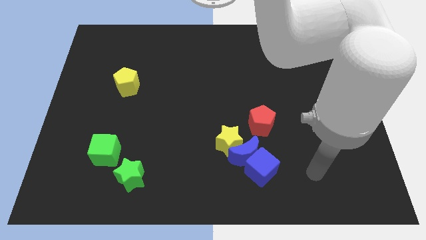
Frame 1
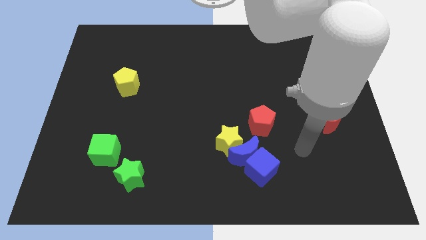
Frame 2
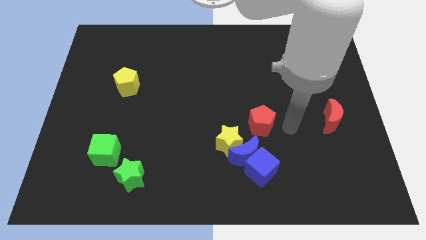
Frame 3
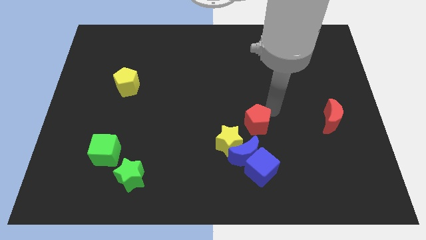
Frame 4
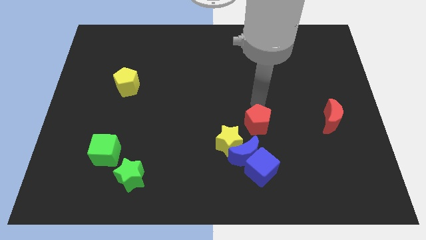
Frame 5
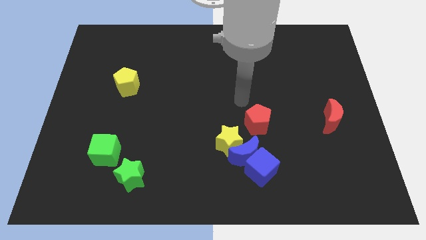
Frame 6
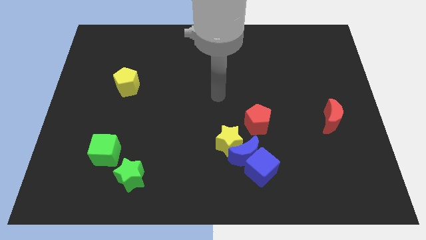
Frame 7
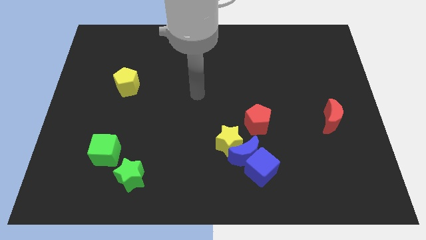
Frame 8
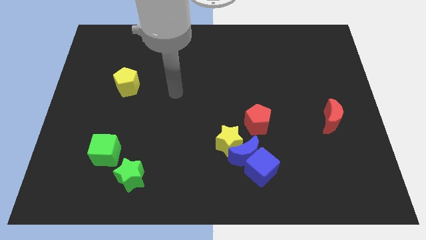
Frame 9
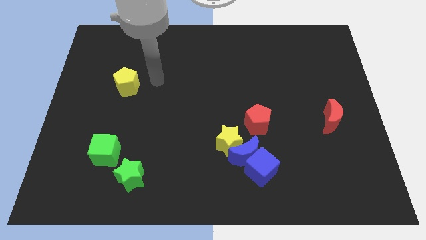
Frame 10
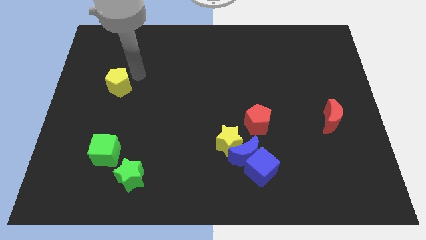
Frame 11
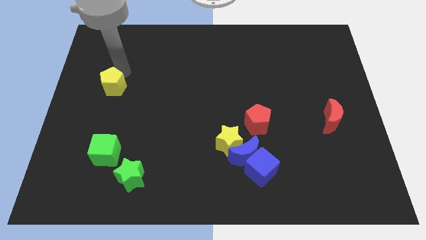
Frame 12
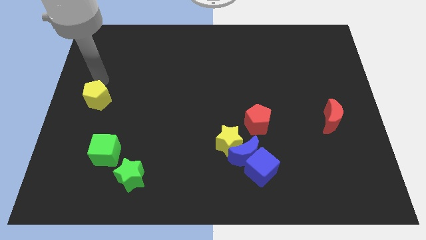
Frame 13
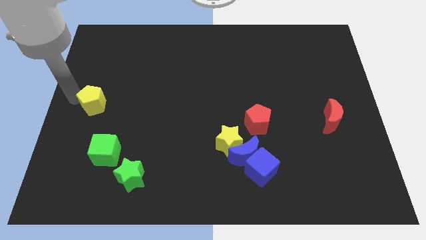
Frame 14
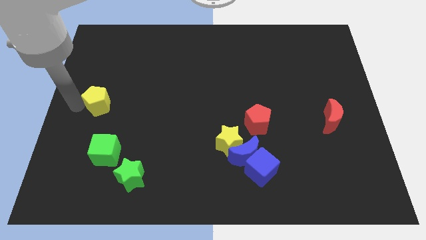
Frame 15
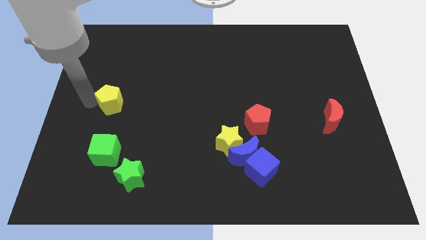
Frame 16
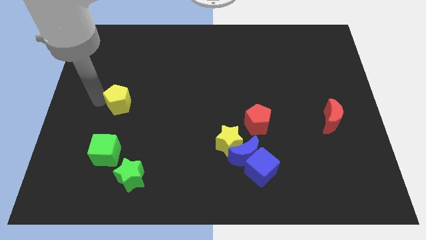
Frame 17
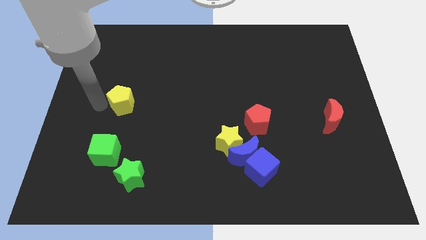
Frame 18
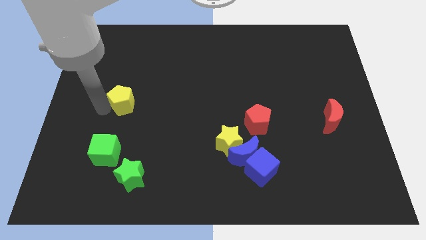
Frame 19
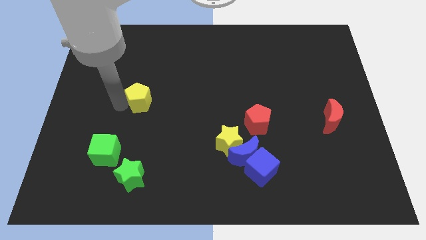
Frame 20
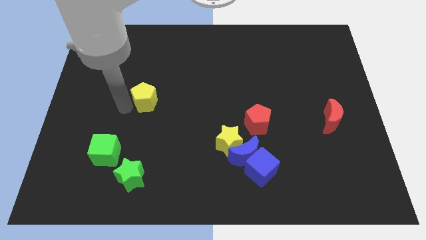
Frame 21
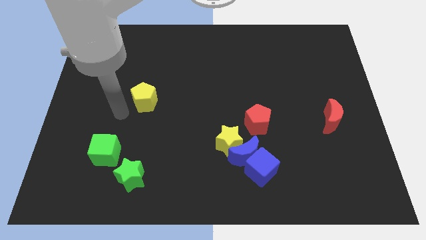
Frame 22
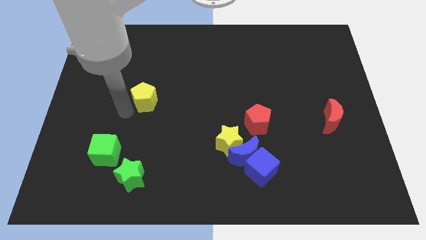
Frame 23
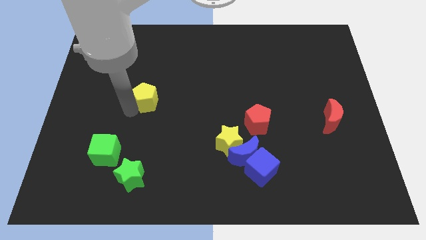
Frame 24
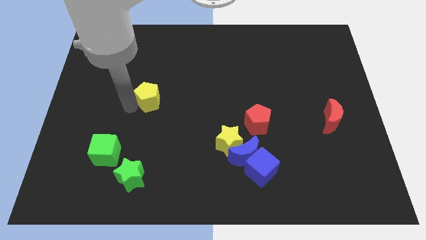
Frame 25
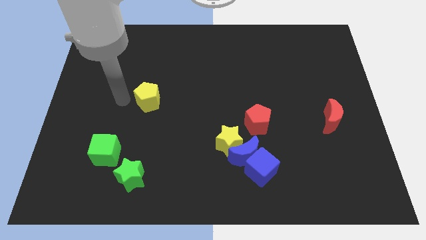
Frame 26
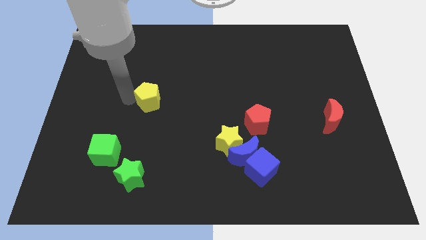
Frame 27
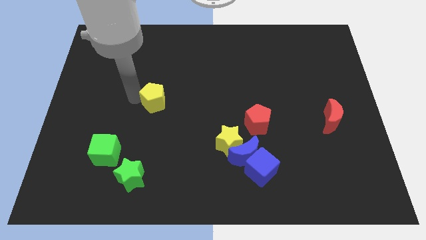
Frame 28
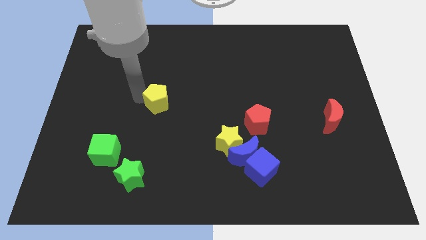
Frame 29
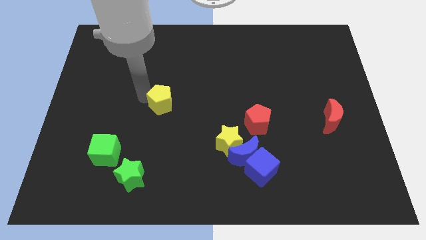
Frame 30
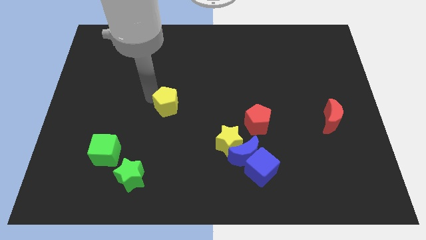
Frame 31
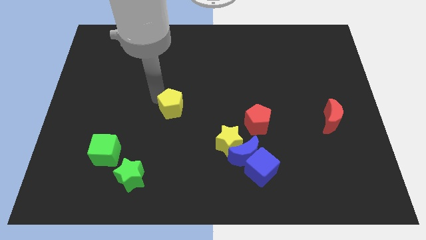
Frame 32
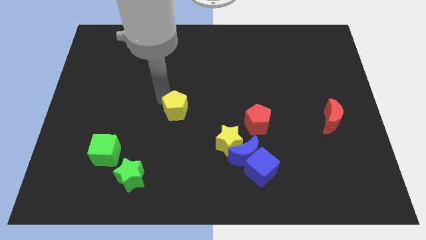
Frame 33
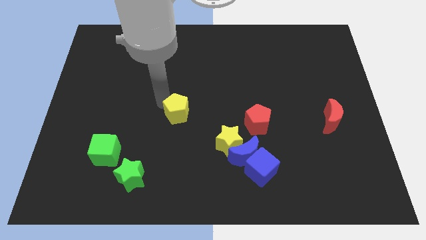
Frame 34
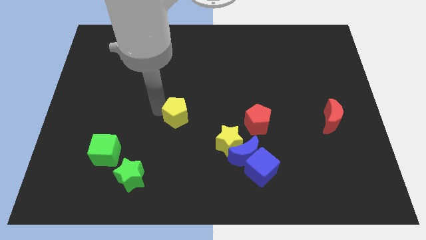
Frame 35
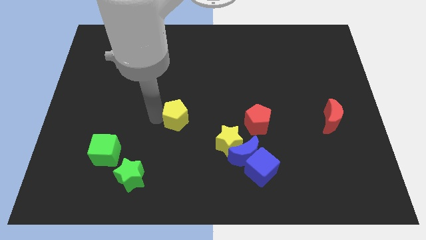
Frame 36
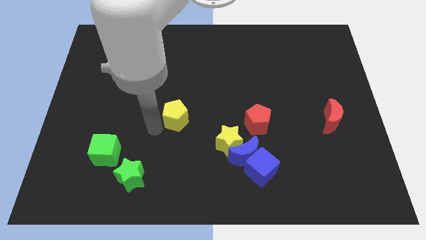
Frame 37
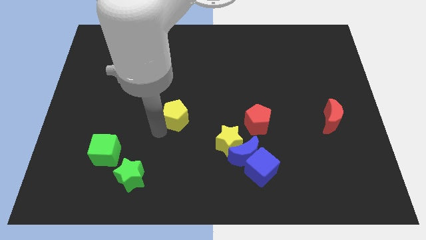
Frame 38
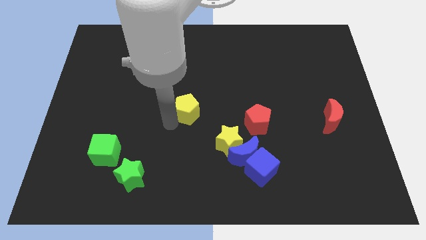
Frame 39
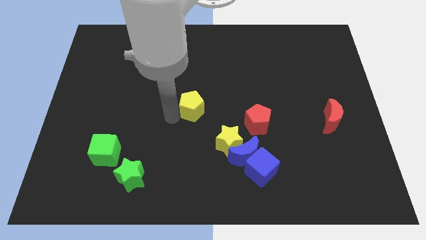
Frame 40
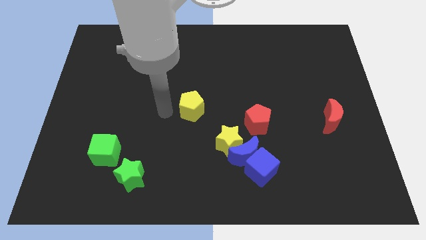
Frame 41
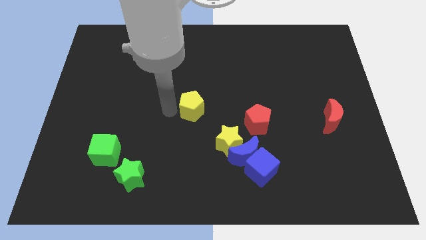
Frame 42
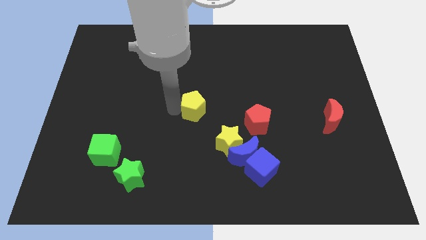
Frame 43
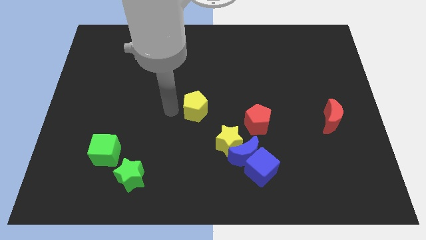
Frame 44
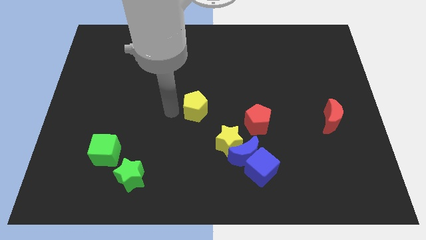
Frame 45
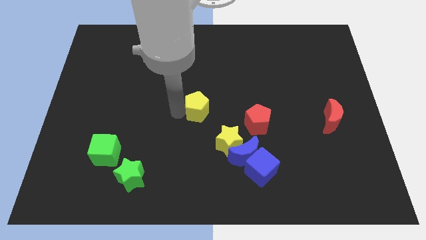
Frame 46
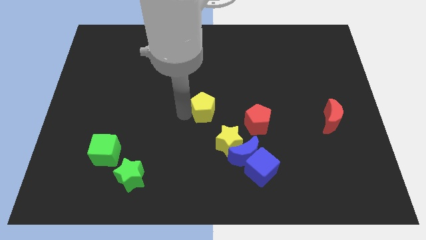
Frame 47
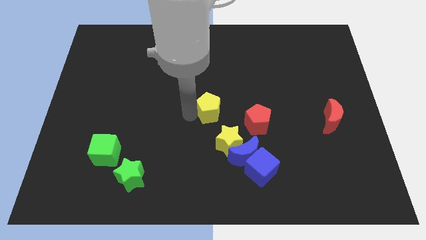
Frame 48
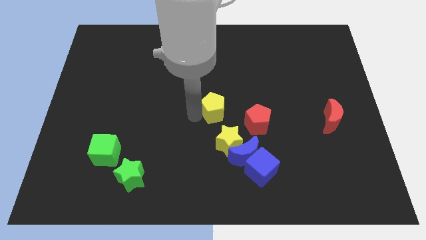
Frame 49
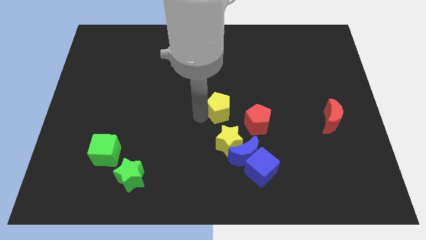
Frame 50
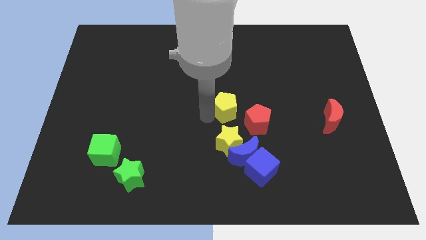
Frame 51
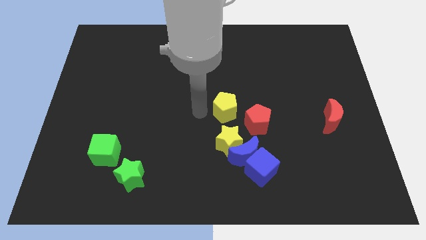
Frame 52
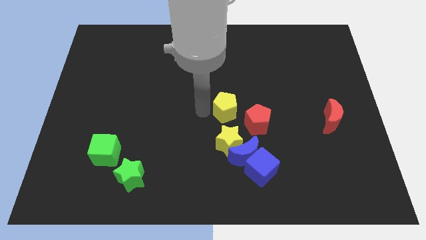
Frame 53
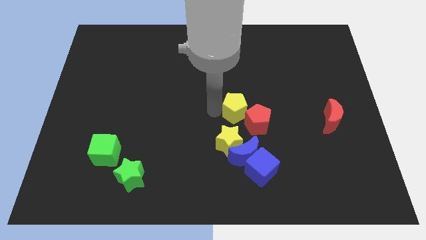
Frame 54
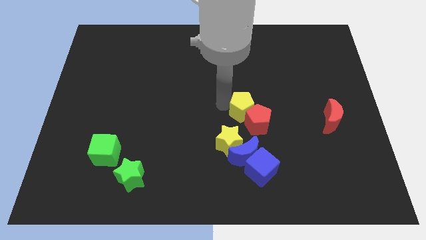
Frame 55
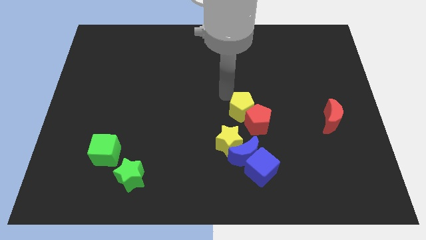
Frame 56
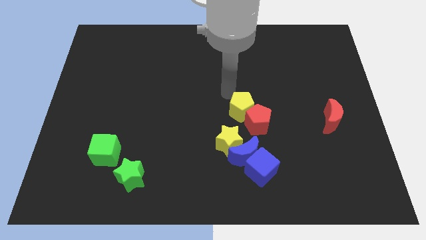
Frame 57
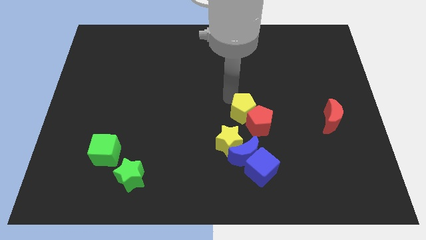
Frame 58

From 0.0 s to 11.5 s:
slide the yellow pentagon to the top of the blue cube

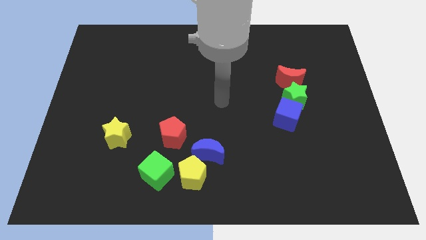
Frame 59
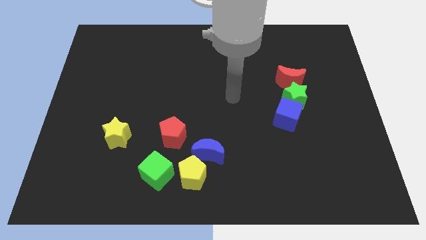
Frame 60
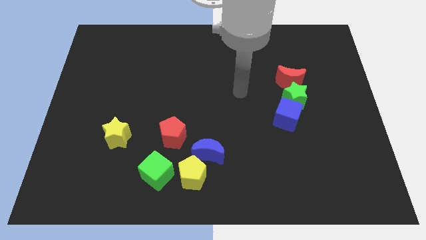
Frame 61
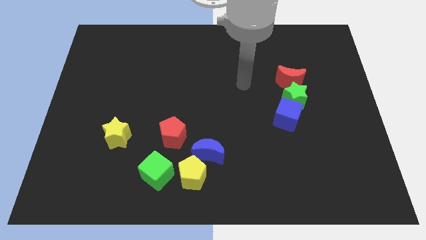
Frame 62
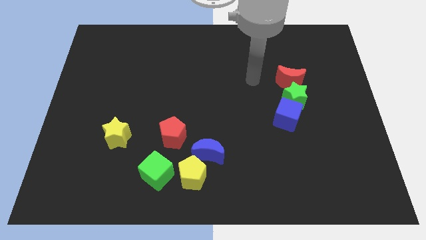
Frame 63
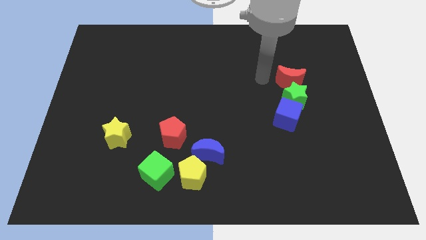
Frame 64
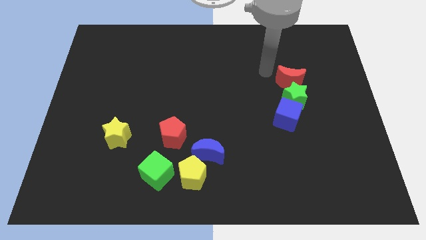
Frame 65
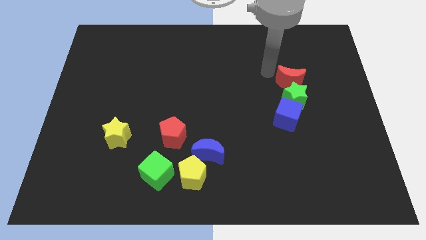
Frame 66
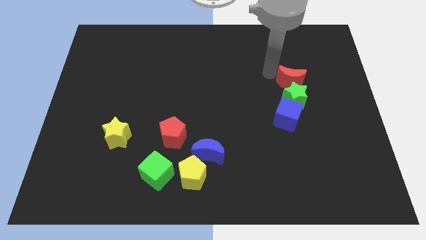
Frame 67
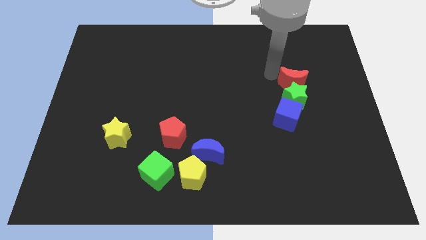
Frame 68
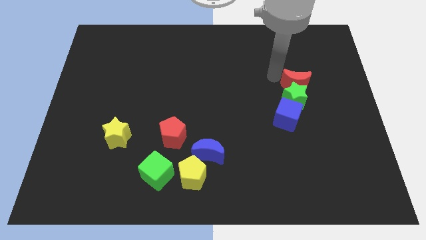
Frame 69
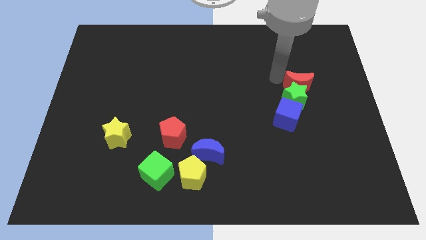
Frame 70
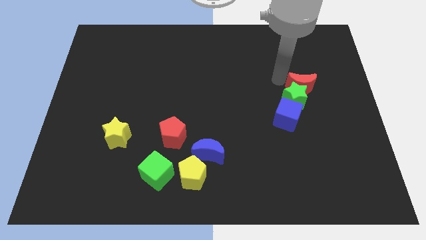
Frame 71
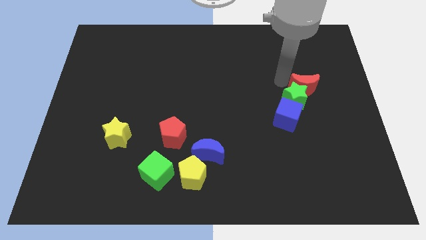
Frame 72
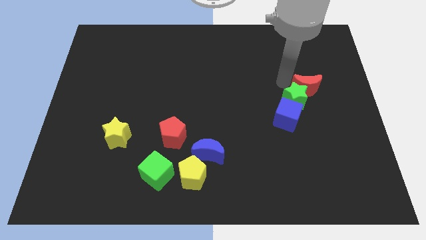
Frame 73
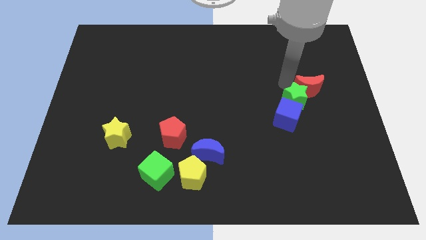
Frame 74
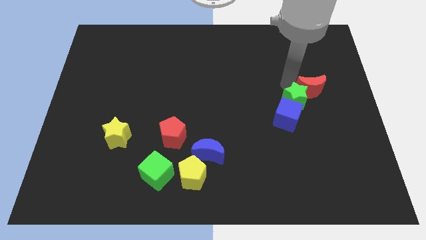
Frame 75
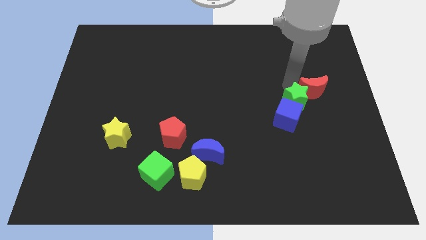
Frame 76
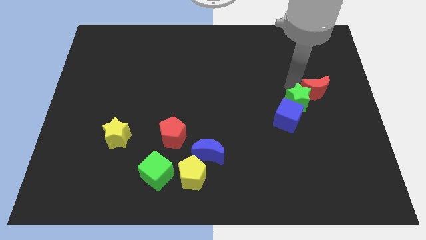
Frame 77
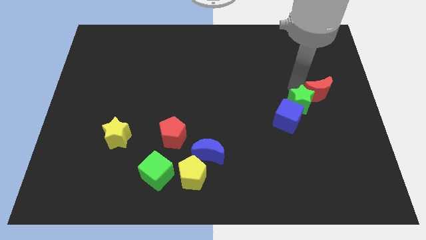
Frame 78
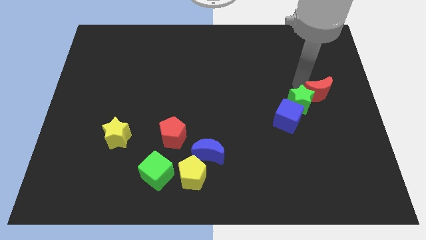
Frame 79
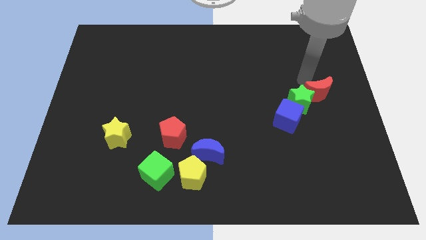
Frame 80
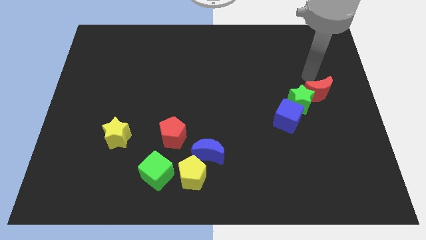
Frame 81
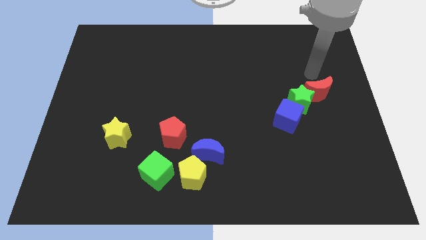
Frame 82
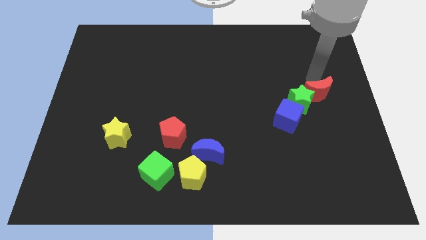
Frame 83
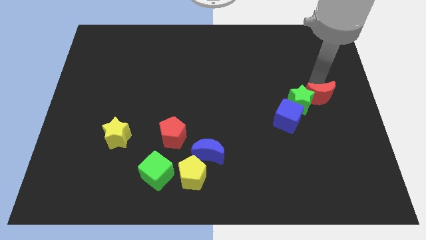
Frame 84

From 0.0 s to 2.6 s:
slide the red moon to the bottom right of the green star
